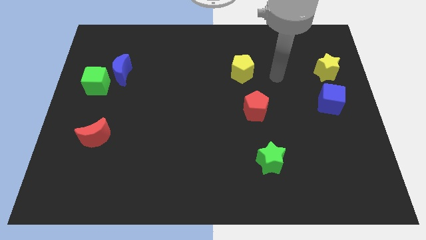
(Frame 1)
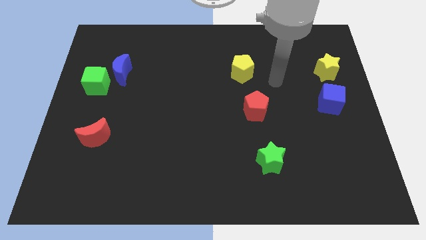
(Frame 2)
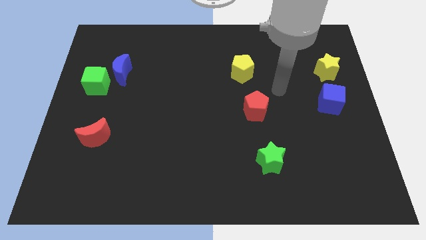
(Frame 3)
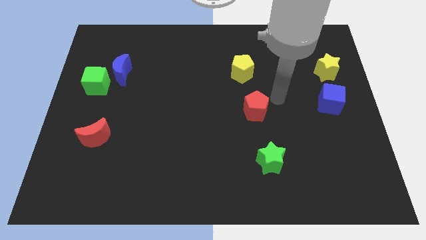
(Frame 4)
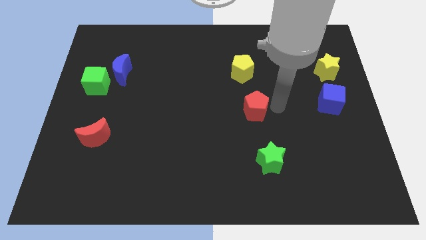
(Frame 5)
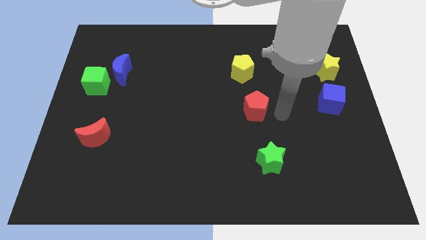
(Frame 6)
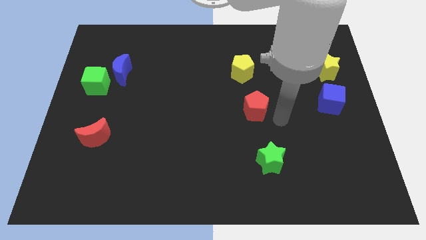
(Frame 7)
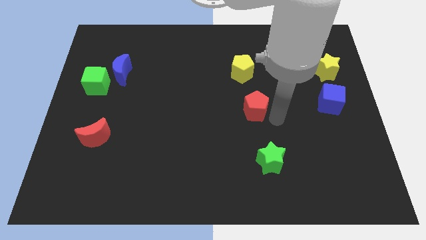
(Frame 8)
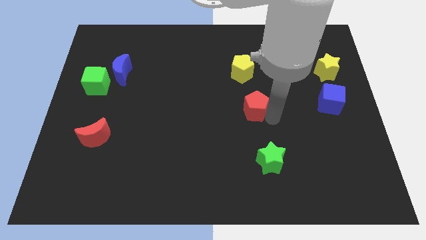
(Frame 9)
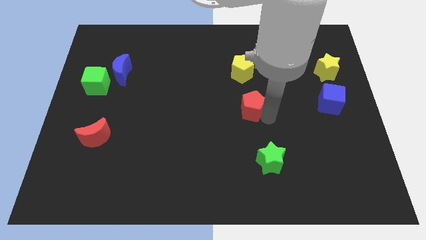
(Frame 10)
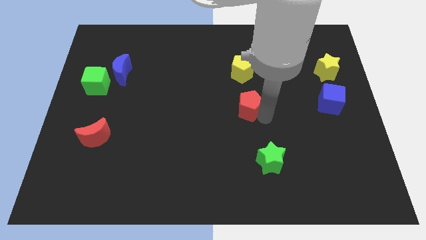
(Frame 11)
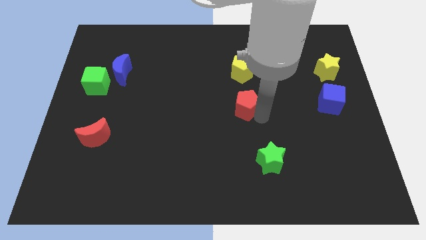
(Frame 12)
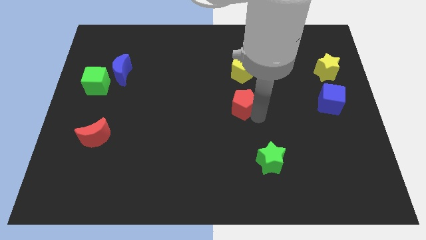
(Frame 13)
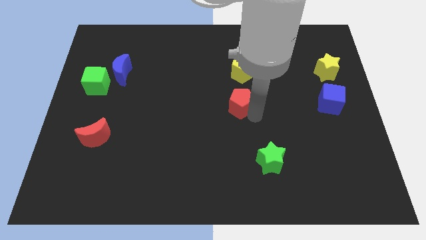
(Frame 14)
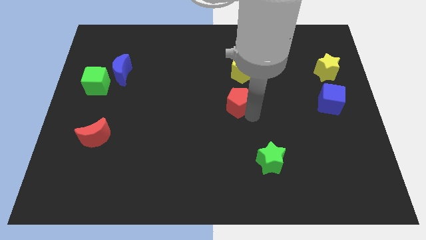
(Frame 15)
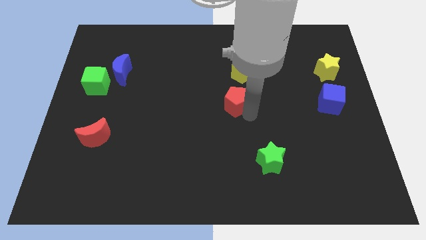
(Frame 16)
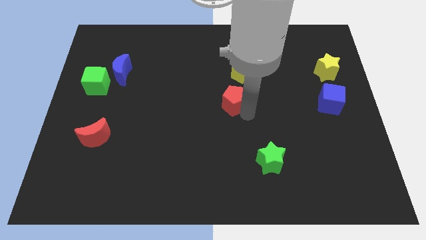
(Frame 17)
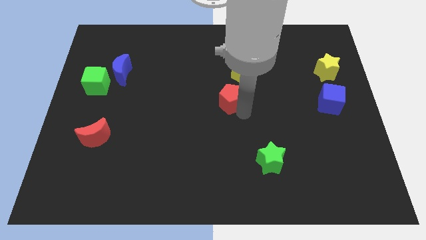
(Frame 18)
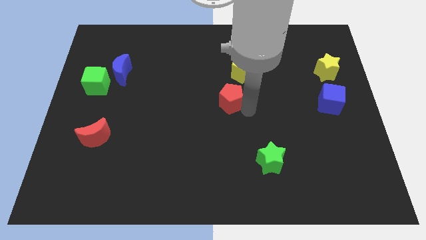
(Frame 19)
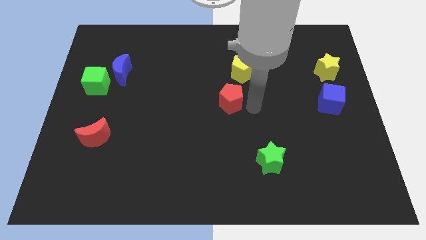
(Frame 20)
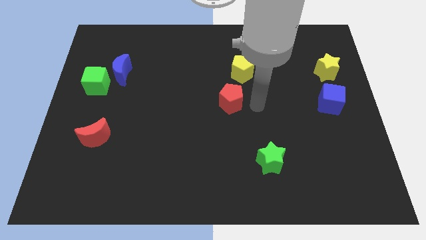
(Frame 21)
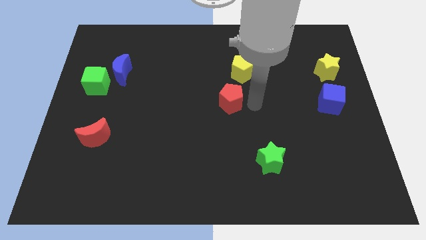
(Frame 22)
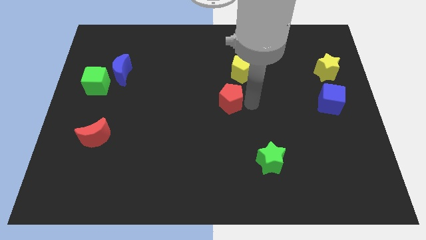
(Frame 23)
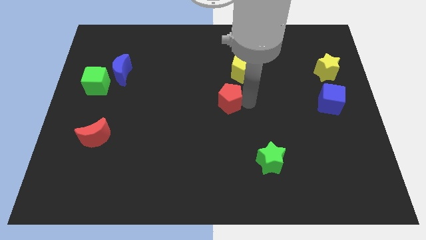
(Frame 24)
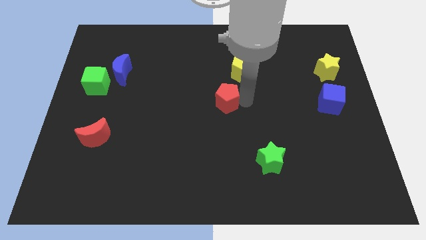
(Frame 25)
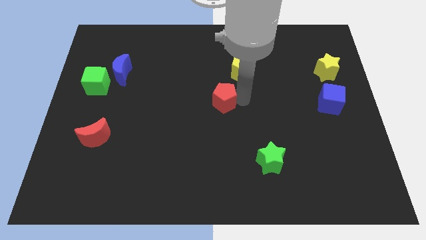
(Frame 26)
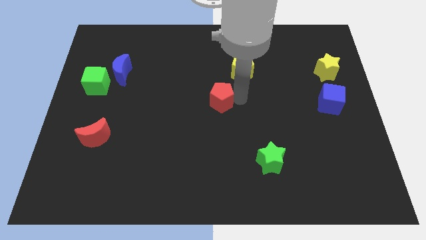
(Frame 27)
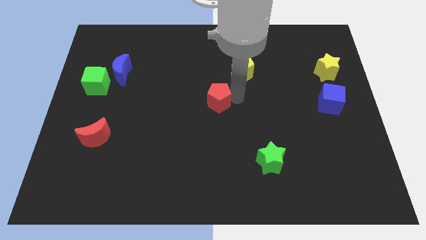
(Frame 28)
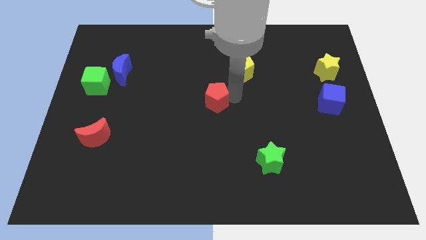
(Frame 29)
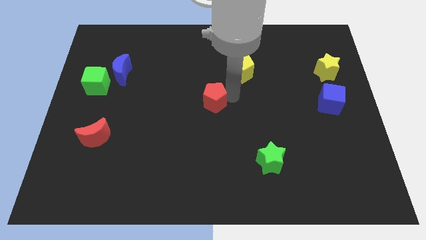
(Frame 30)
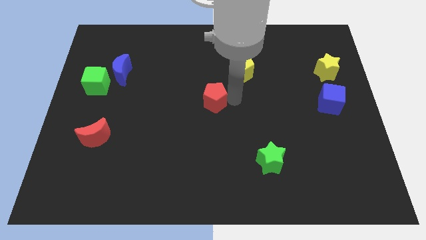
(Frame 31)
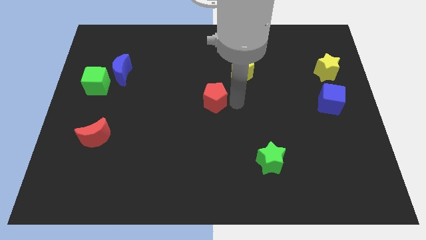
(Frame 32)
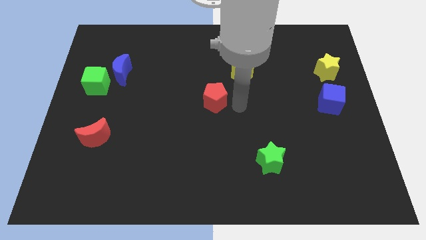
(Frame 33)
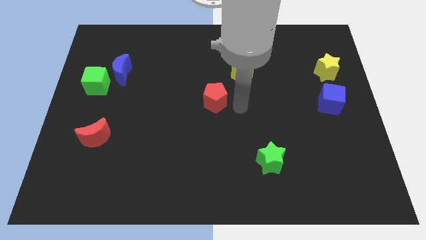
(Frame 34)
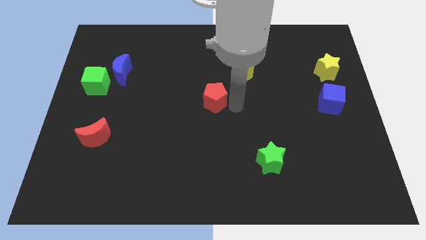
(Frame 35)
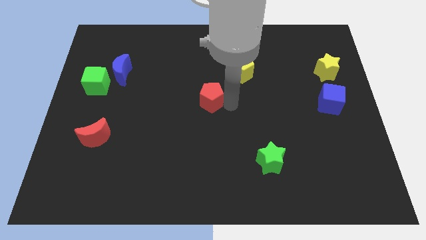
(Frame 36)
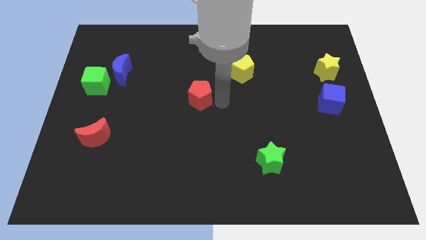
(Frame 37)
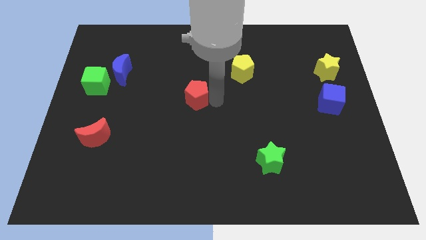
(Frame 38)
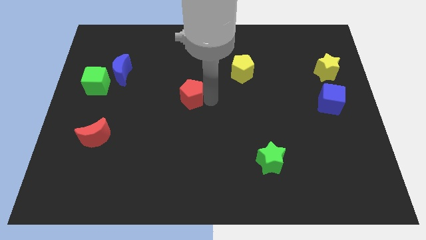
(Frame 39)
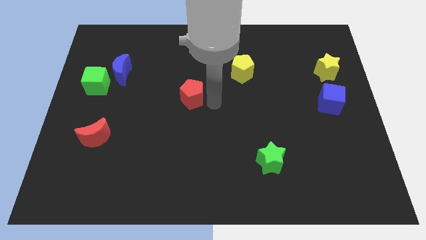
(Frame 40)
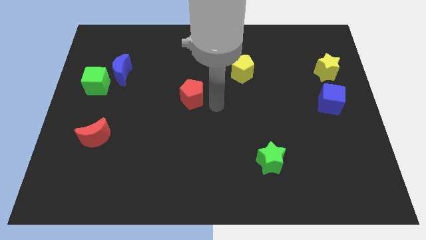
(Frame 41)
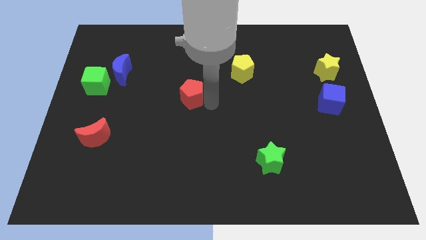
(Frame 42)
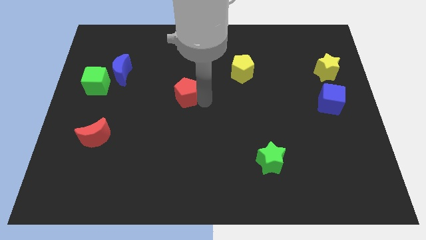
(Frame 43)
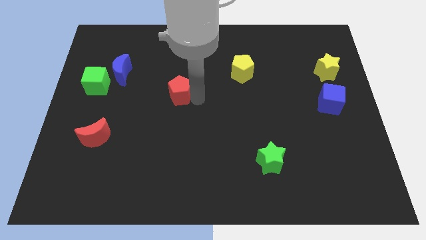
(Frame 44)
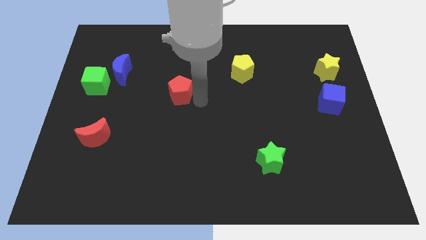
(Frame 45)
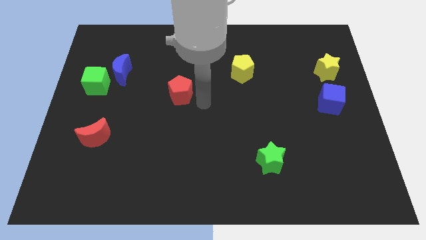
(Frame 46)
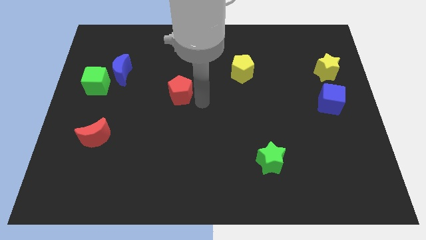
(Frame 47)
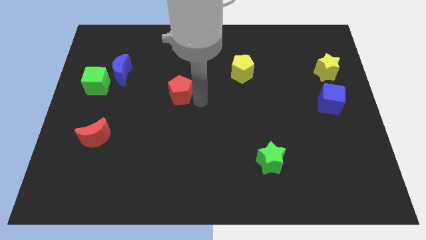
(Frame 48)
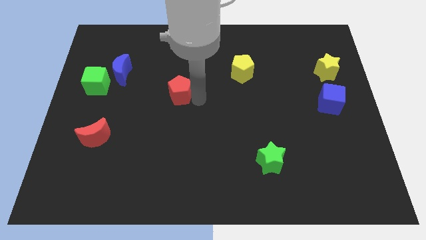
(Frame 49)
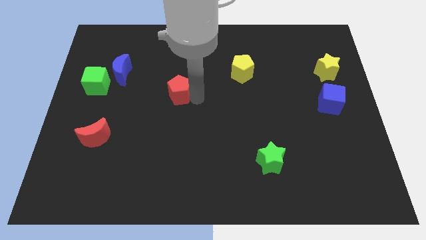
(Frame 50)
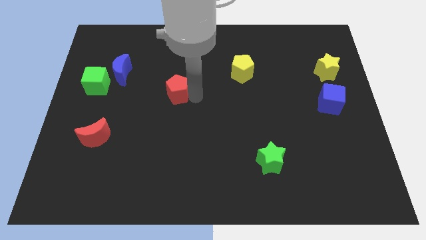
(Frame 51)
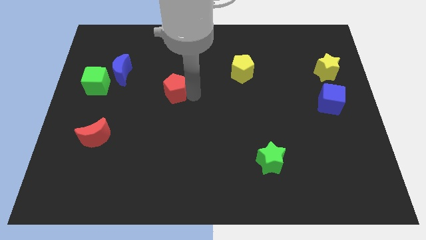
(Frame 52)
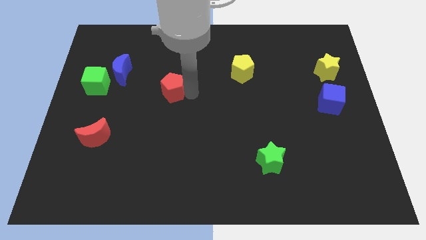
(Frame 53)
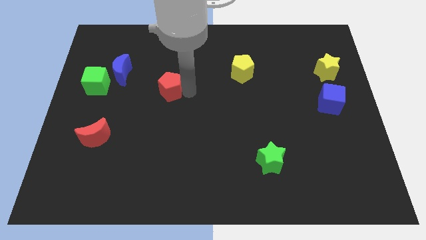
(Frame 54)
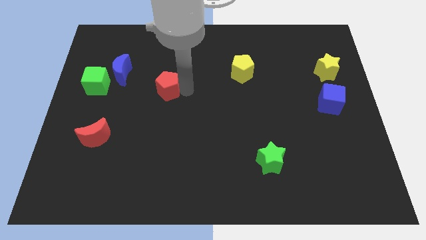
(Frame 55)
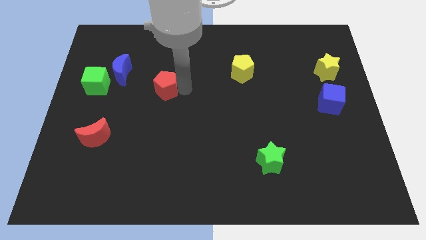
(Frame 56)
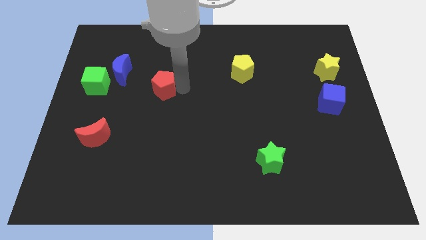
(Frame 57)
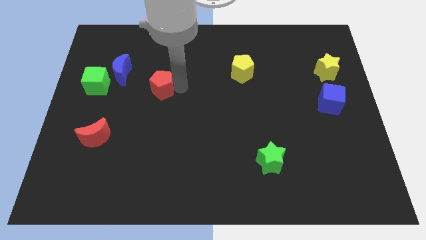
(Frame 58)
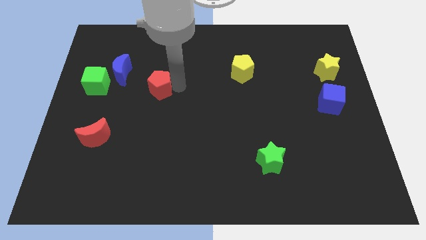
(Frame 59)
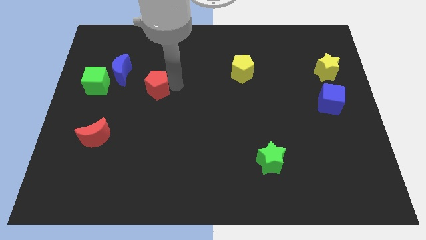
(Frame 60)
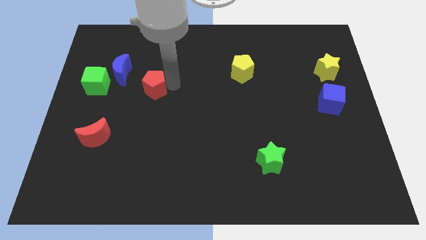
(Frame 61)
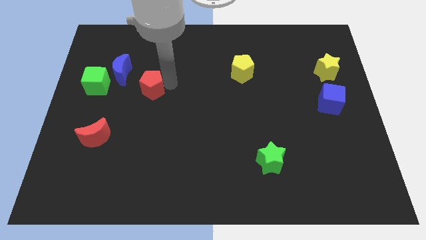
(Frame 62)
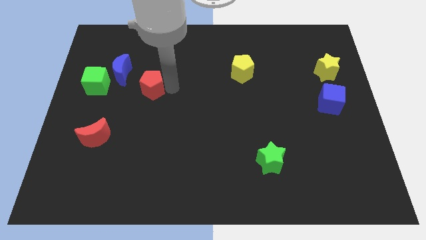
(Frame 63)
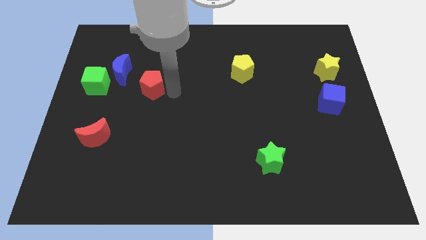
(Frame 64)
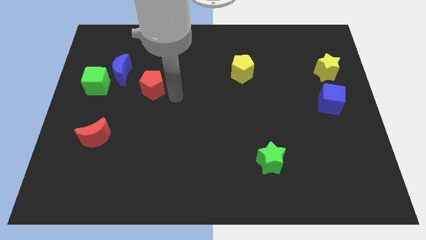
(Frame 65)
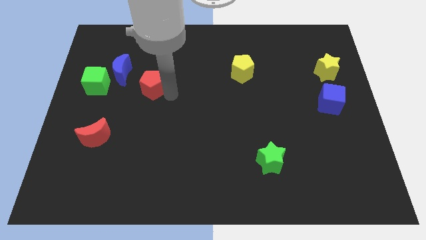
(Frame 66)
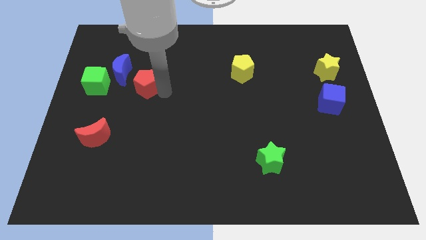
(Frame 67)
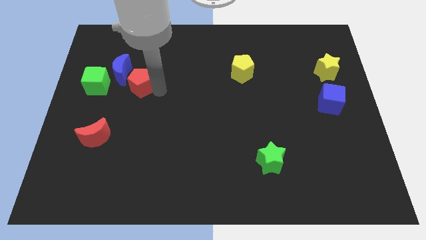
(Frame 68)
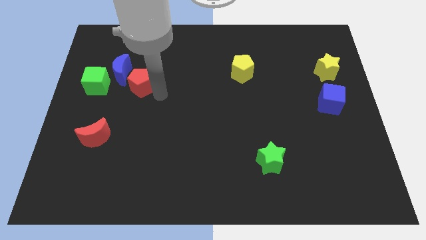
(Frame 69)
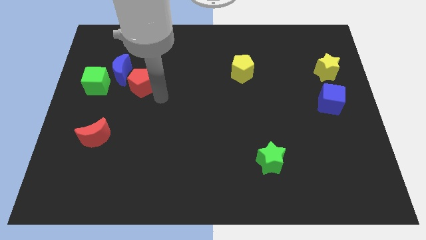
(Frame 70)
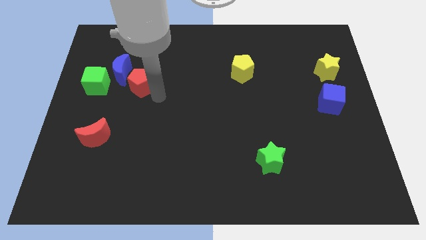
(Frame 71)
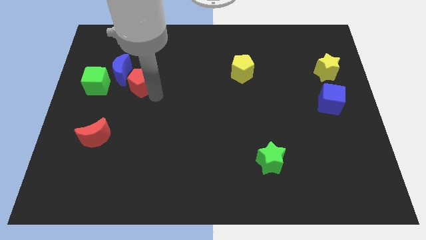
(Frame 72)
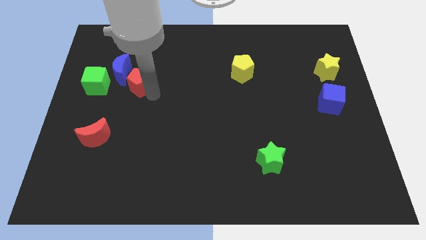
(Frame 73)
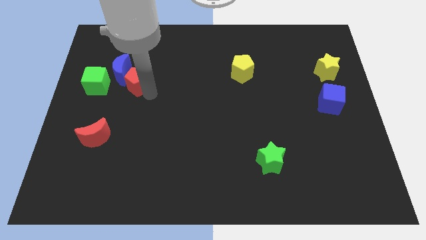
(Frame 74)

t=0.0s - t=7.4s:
move the red pentagon next to the blue moon
